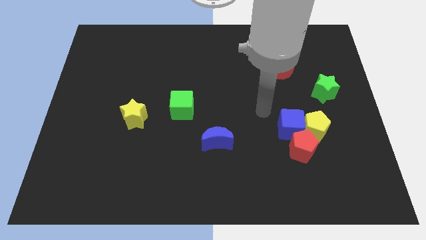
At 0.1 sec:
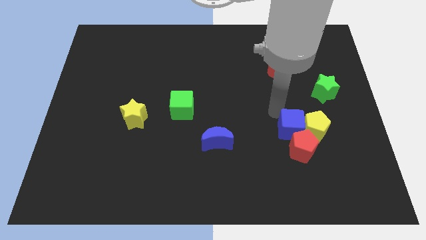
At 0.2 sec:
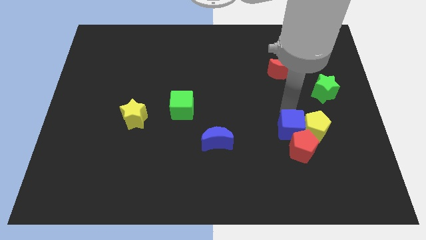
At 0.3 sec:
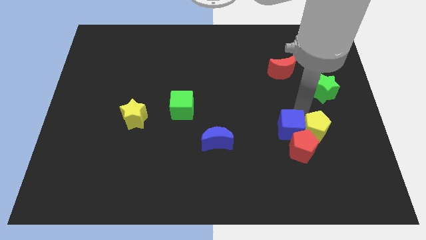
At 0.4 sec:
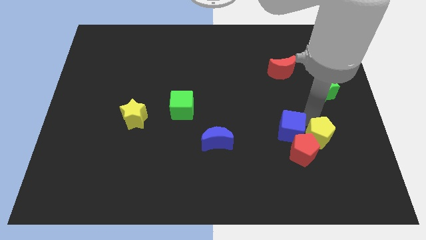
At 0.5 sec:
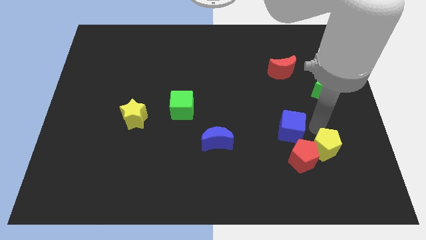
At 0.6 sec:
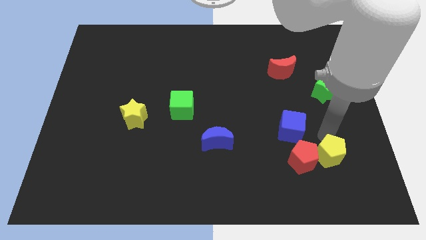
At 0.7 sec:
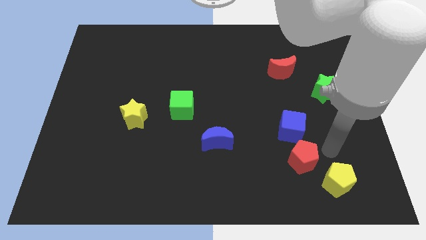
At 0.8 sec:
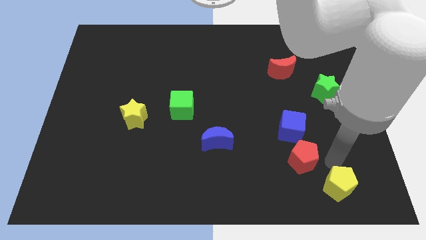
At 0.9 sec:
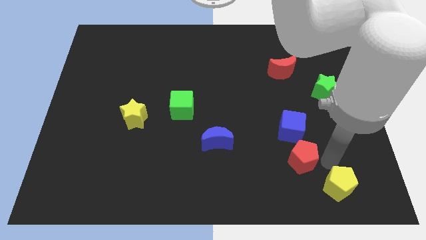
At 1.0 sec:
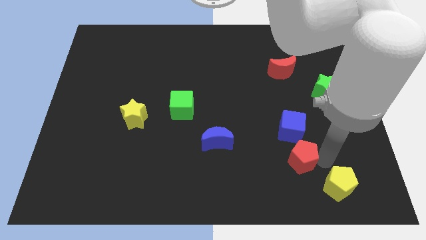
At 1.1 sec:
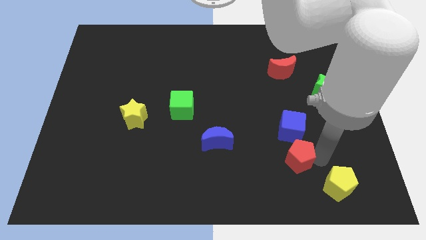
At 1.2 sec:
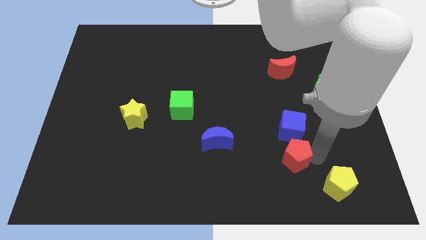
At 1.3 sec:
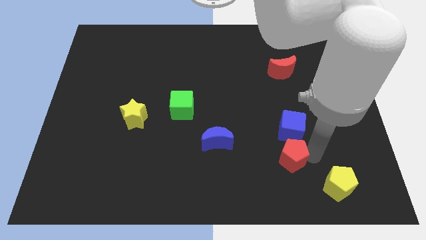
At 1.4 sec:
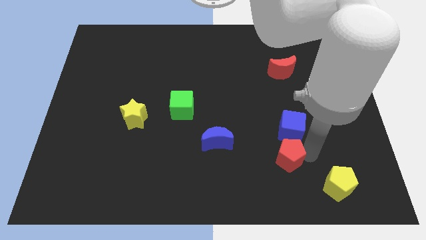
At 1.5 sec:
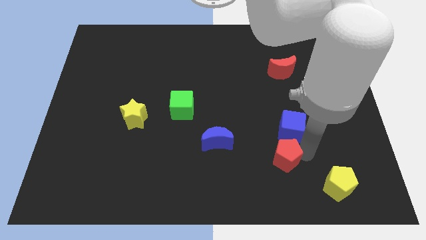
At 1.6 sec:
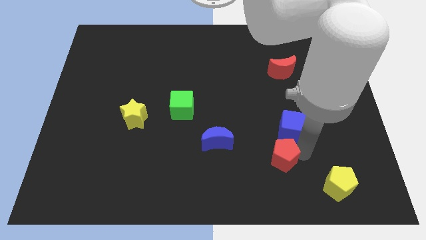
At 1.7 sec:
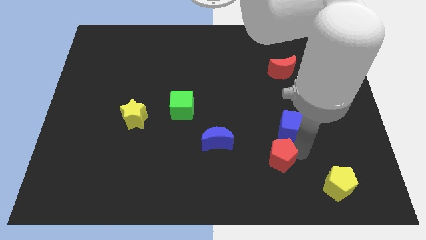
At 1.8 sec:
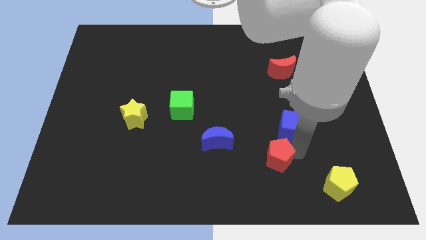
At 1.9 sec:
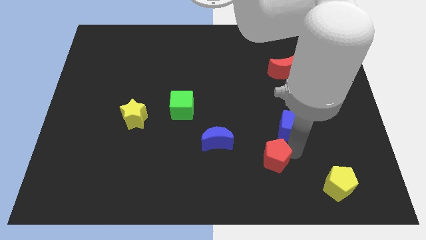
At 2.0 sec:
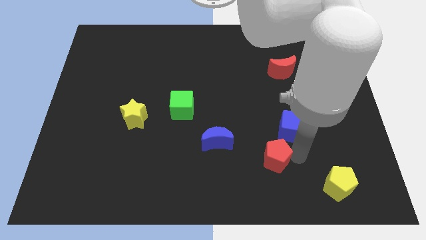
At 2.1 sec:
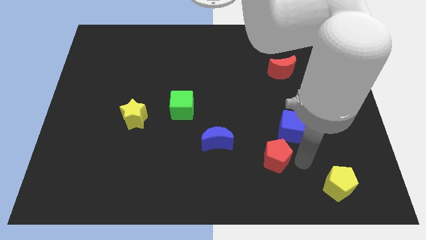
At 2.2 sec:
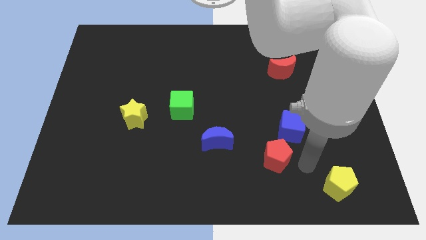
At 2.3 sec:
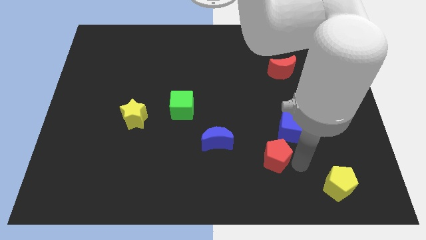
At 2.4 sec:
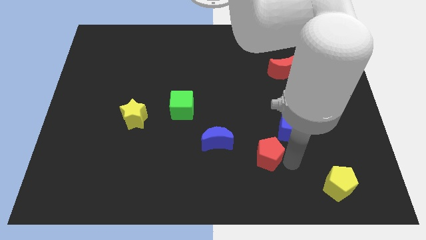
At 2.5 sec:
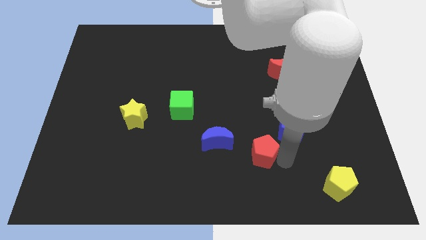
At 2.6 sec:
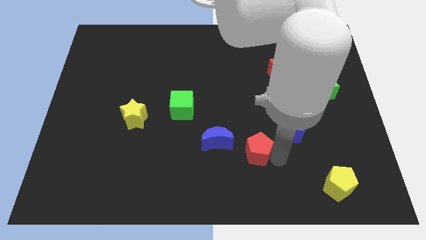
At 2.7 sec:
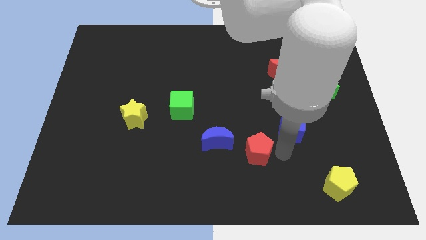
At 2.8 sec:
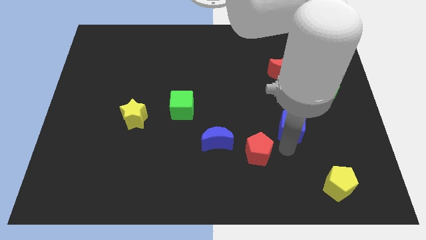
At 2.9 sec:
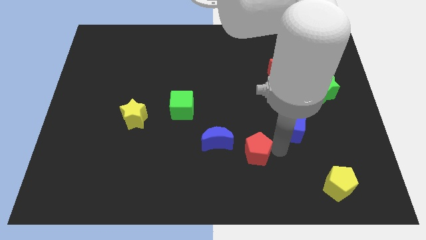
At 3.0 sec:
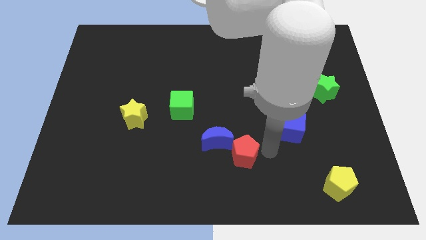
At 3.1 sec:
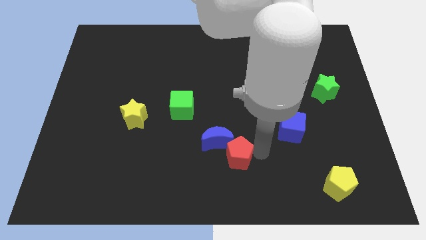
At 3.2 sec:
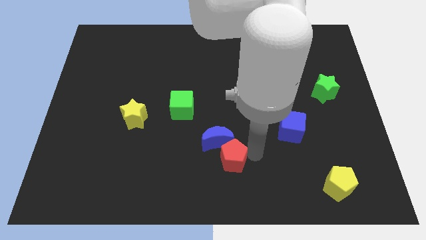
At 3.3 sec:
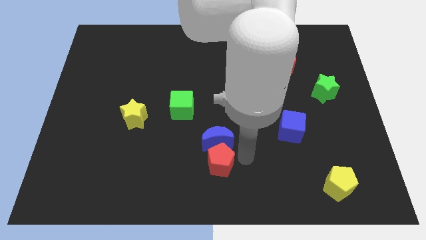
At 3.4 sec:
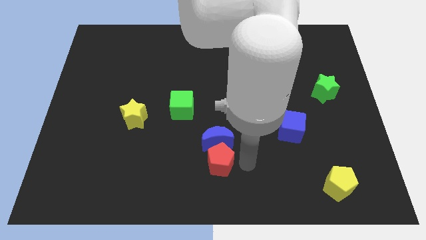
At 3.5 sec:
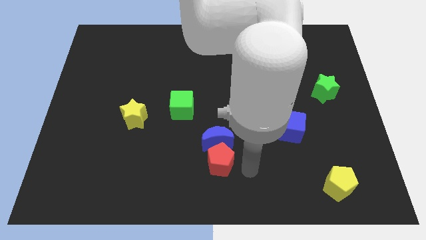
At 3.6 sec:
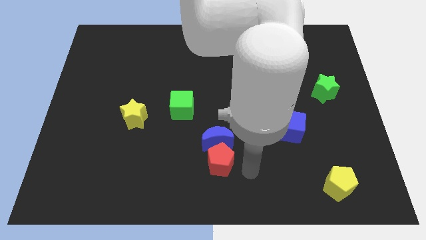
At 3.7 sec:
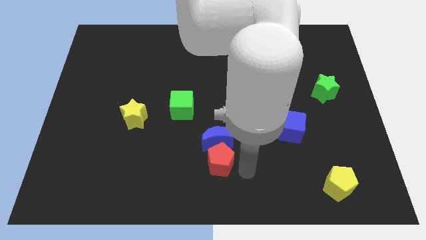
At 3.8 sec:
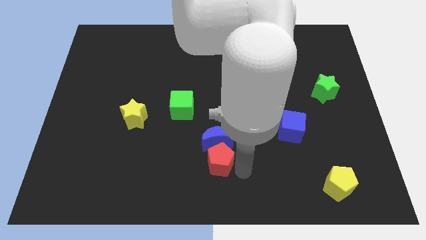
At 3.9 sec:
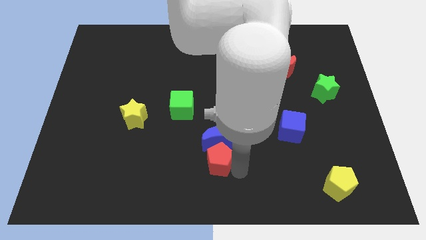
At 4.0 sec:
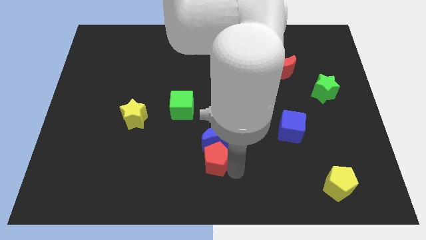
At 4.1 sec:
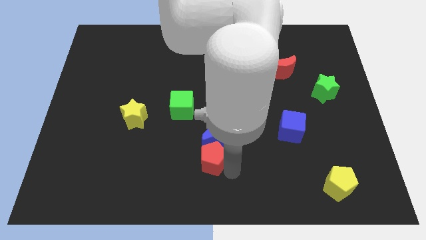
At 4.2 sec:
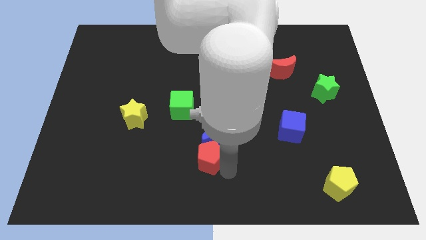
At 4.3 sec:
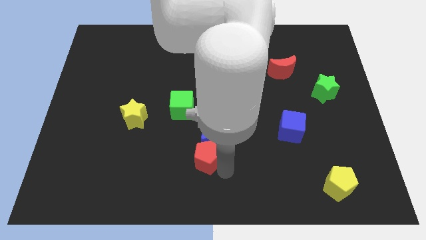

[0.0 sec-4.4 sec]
move the red pentagon to the left

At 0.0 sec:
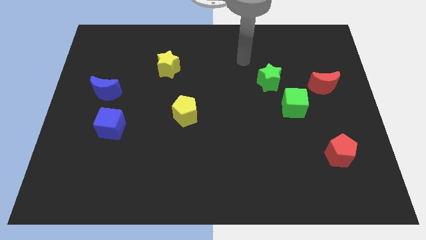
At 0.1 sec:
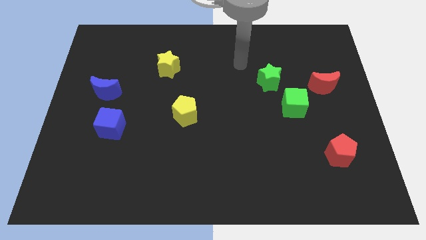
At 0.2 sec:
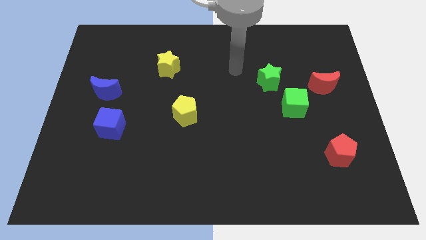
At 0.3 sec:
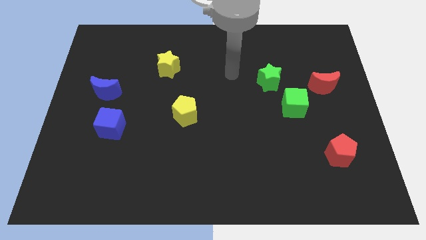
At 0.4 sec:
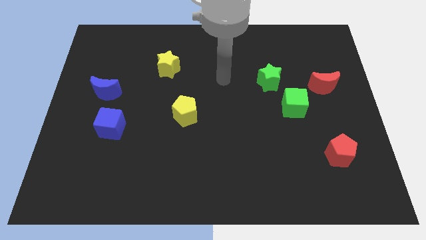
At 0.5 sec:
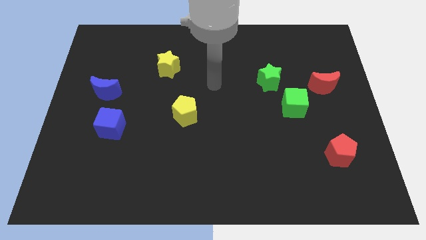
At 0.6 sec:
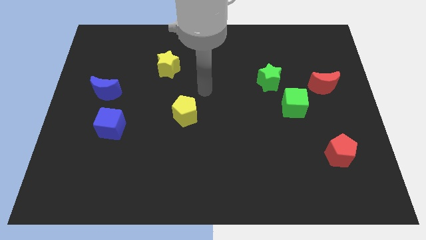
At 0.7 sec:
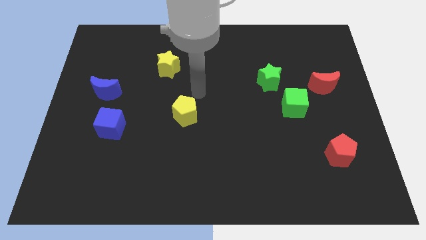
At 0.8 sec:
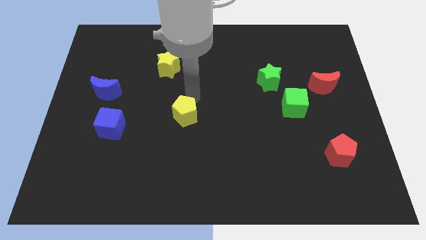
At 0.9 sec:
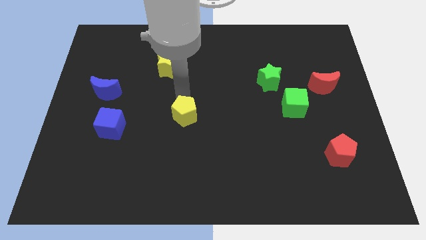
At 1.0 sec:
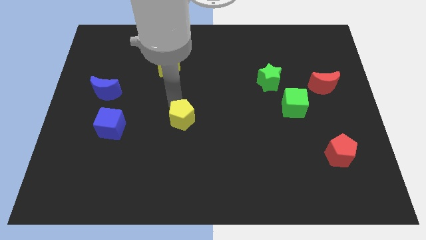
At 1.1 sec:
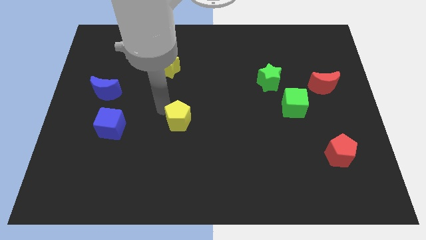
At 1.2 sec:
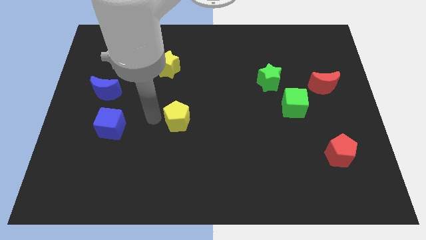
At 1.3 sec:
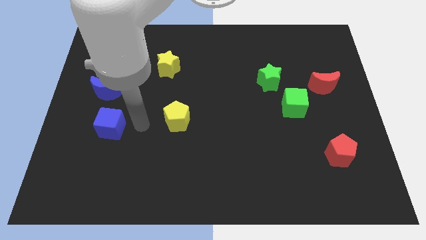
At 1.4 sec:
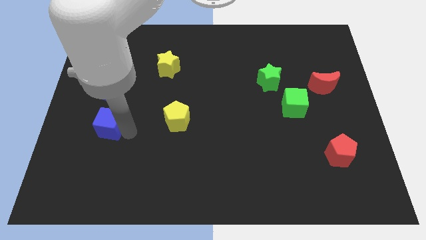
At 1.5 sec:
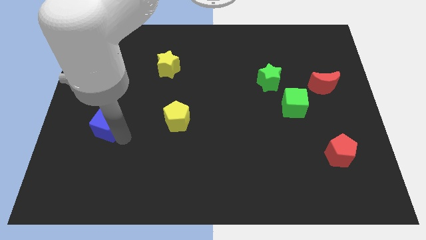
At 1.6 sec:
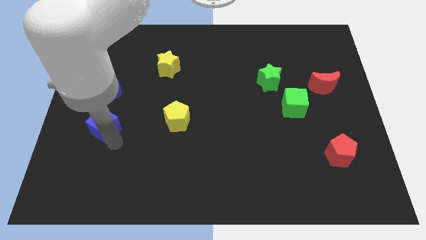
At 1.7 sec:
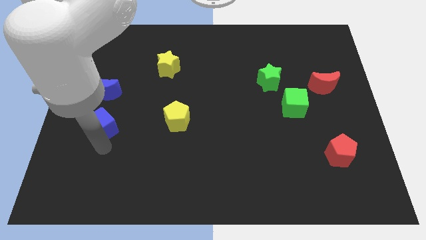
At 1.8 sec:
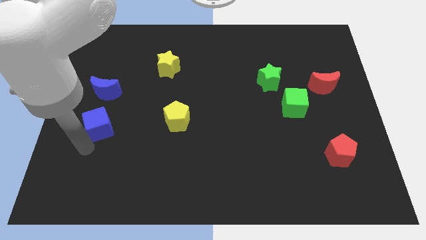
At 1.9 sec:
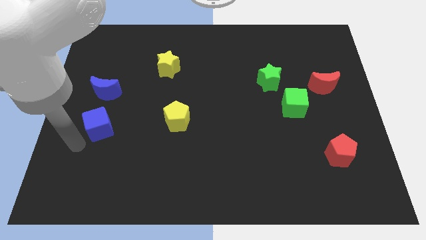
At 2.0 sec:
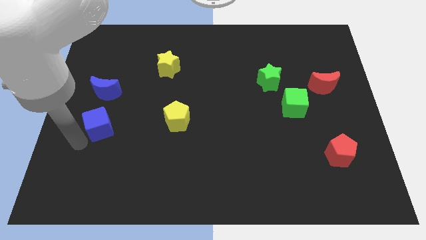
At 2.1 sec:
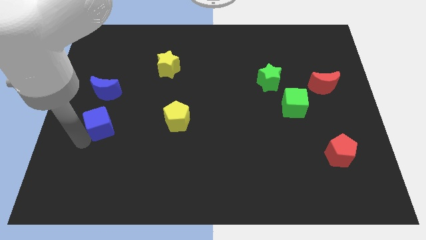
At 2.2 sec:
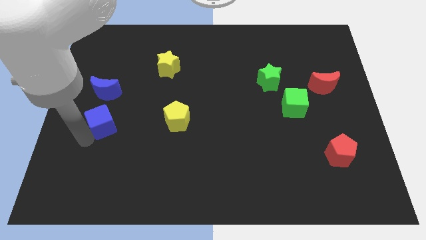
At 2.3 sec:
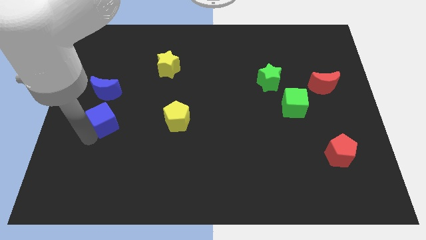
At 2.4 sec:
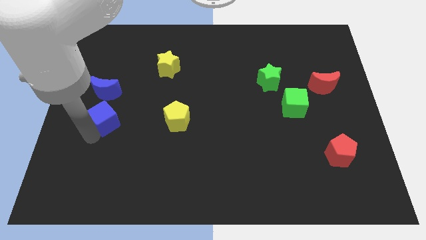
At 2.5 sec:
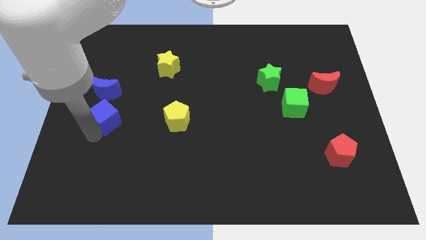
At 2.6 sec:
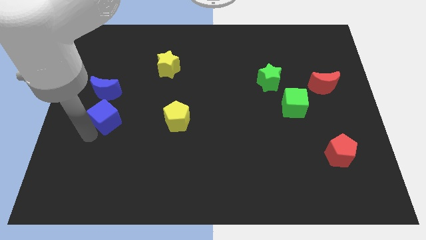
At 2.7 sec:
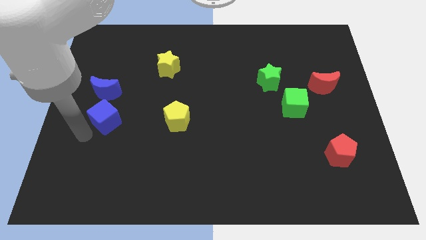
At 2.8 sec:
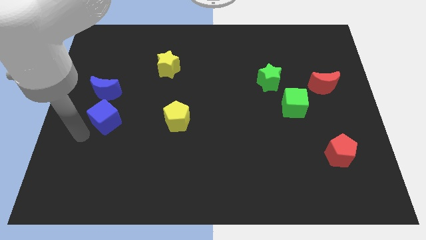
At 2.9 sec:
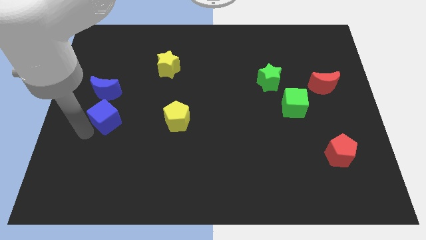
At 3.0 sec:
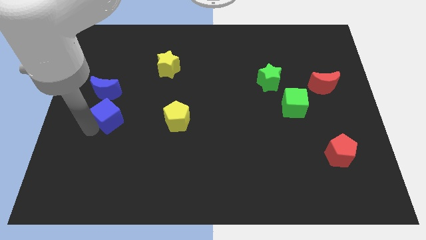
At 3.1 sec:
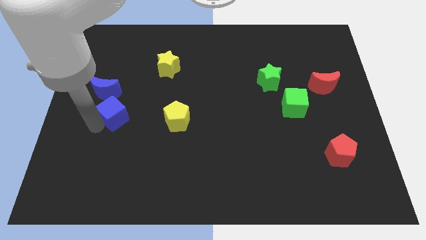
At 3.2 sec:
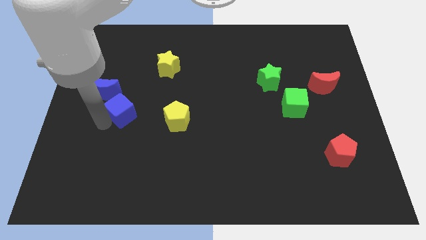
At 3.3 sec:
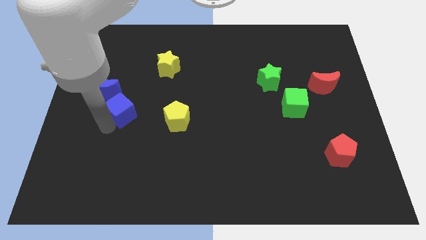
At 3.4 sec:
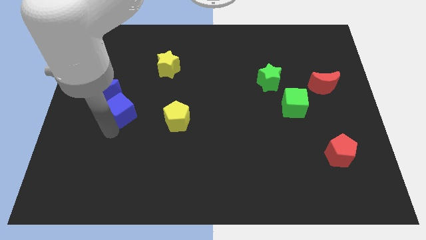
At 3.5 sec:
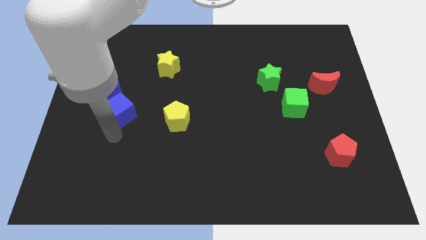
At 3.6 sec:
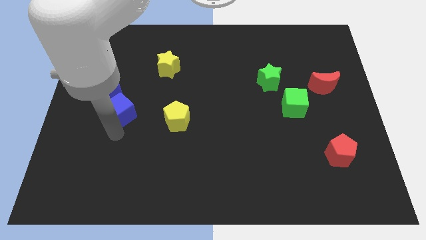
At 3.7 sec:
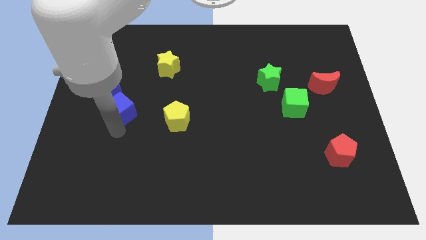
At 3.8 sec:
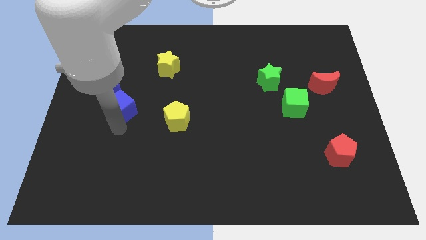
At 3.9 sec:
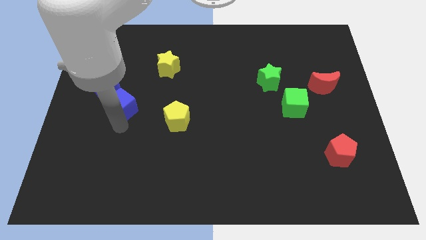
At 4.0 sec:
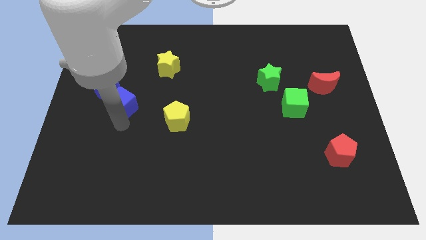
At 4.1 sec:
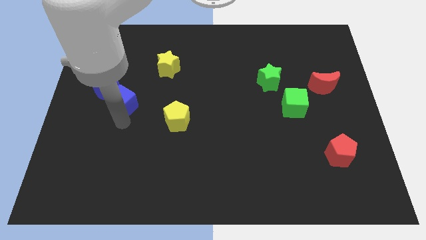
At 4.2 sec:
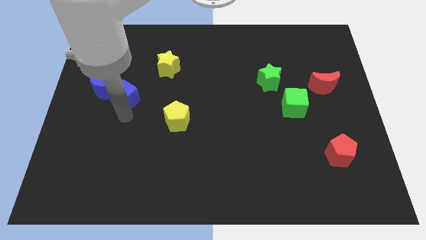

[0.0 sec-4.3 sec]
slightly push the blue cube up
